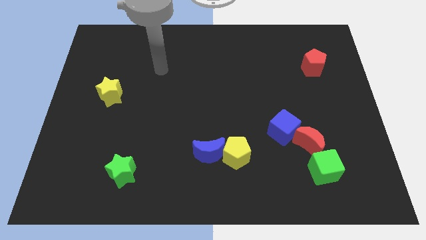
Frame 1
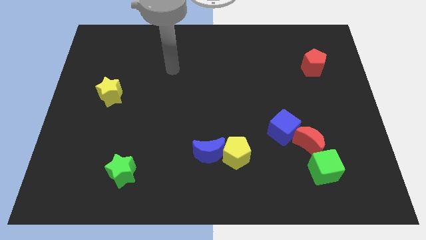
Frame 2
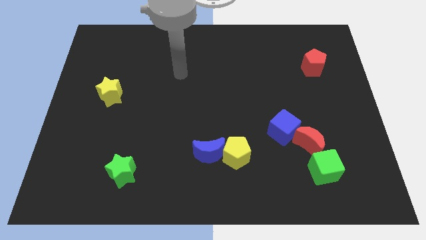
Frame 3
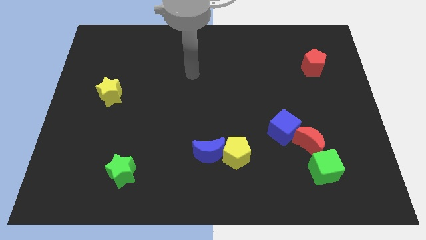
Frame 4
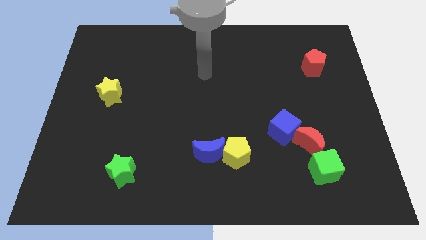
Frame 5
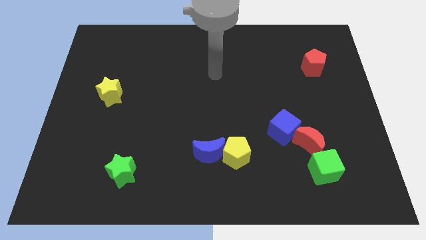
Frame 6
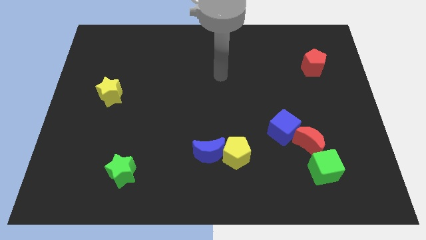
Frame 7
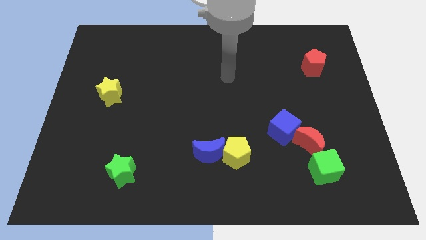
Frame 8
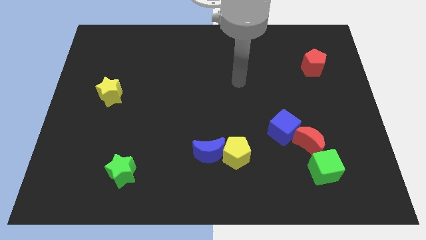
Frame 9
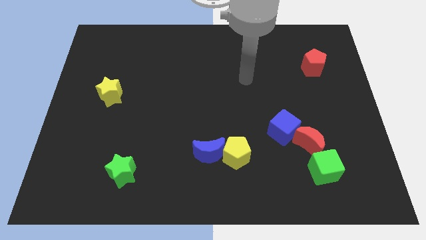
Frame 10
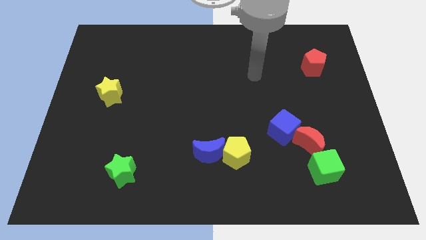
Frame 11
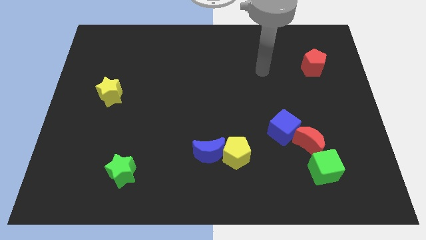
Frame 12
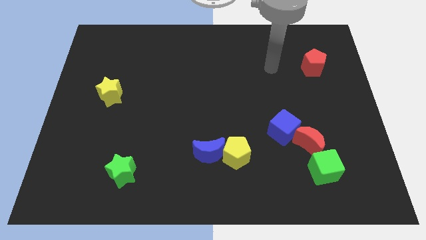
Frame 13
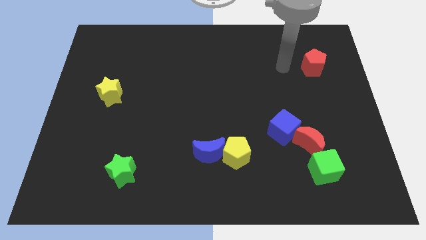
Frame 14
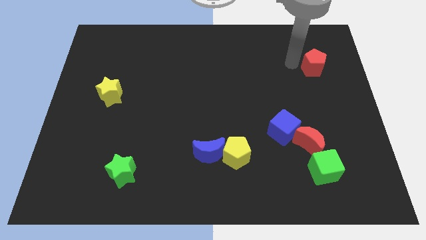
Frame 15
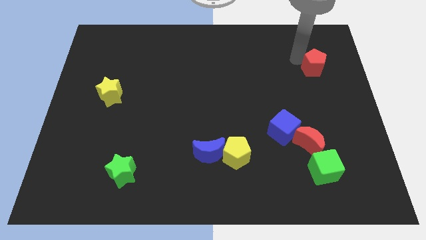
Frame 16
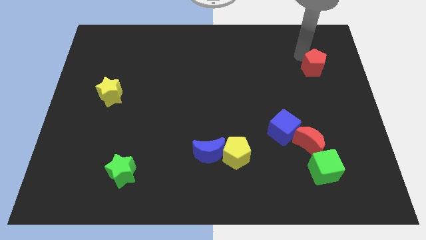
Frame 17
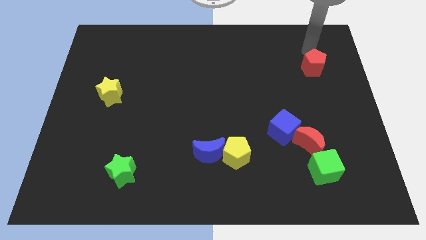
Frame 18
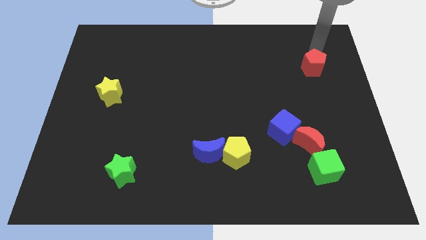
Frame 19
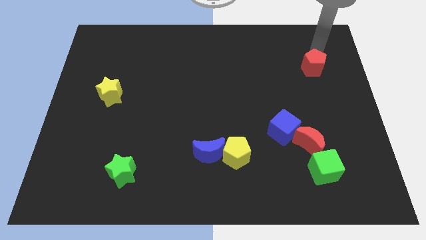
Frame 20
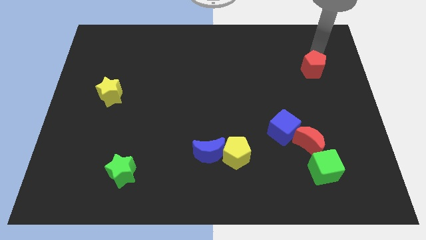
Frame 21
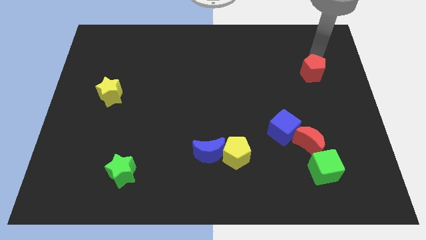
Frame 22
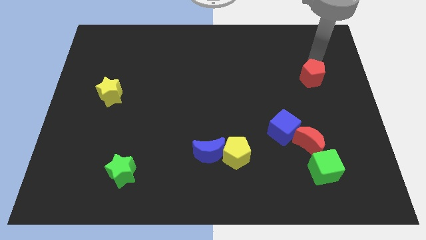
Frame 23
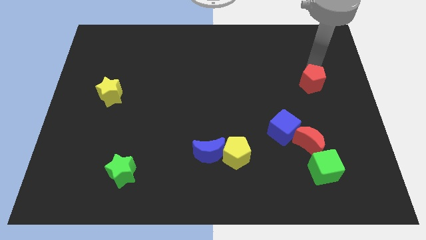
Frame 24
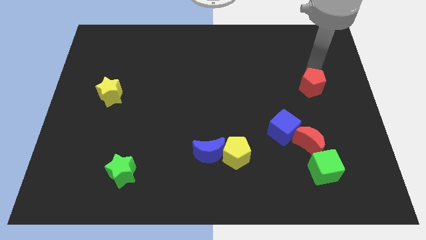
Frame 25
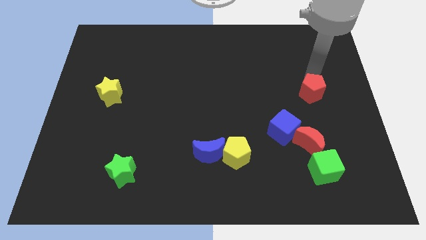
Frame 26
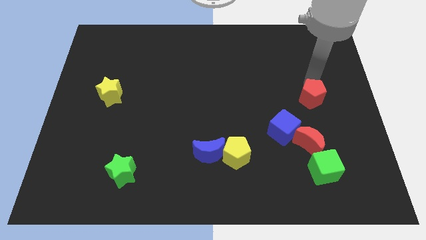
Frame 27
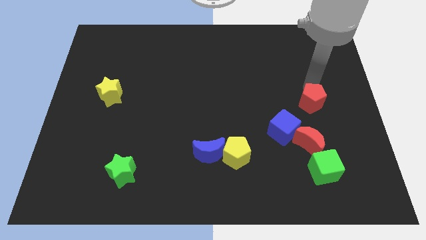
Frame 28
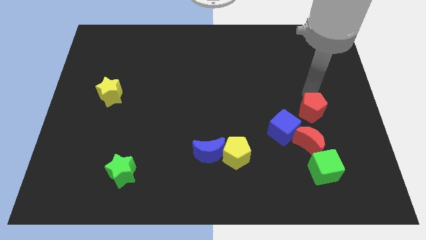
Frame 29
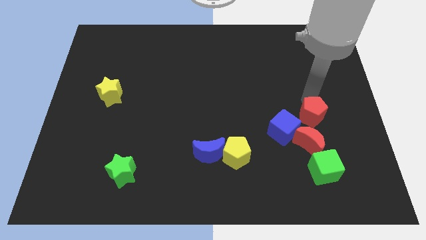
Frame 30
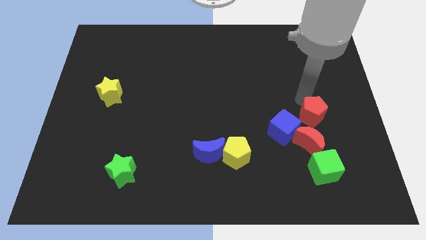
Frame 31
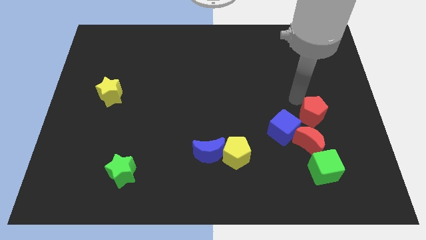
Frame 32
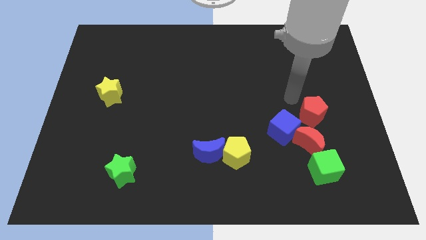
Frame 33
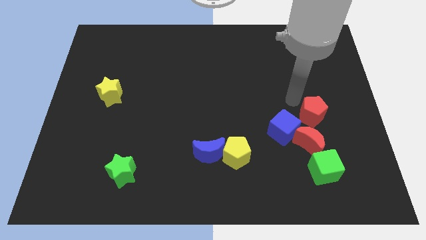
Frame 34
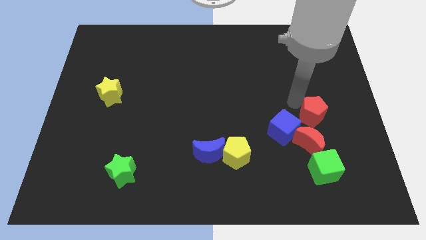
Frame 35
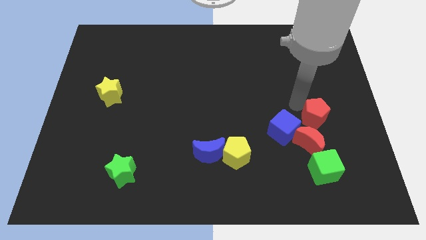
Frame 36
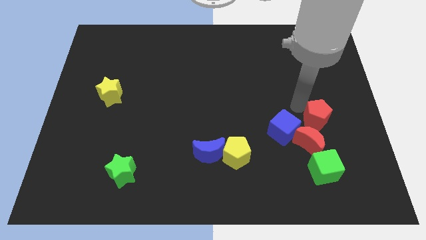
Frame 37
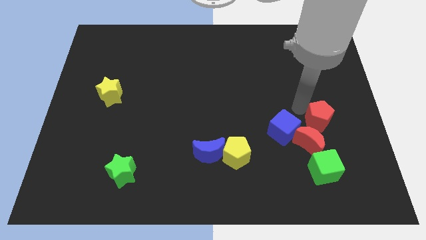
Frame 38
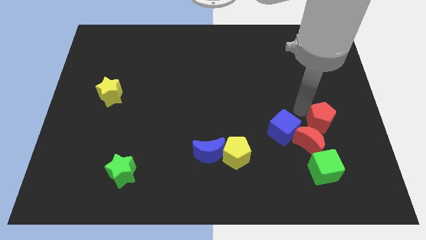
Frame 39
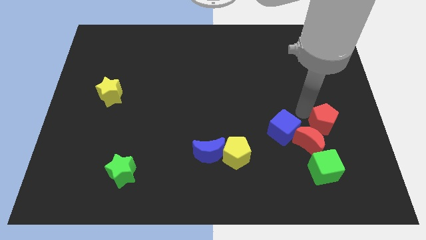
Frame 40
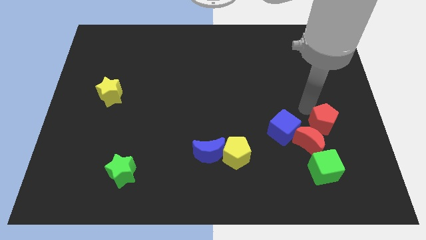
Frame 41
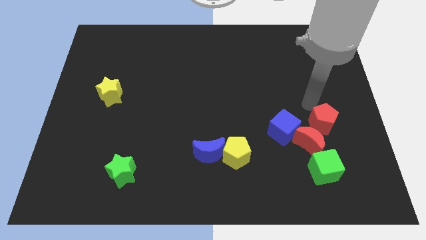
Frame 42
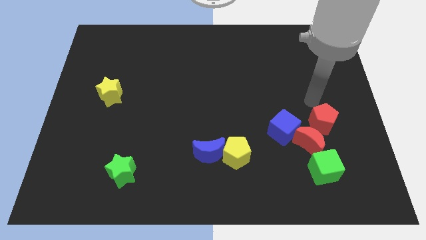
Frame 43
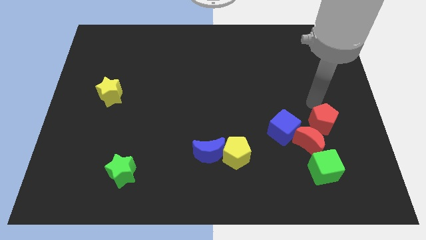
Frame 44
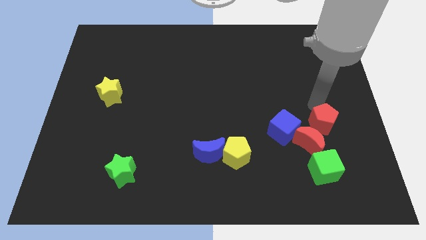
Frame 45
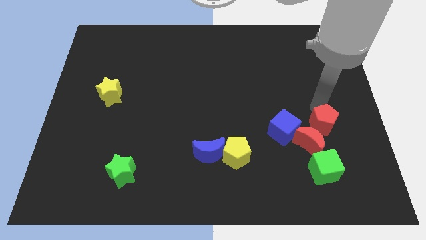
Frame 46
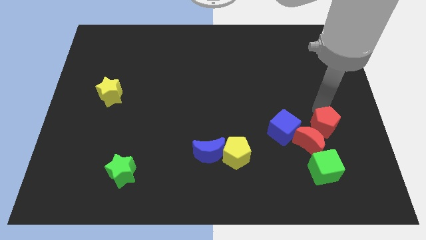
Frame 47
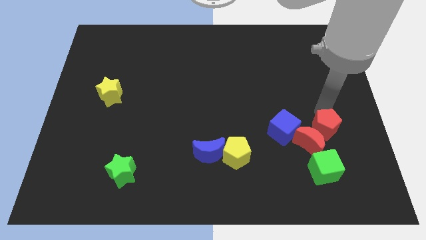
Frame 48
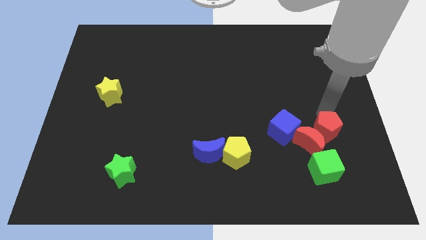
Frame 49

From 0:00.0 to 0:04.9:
slide the red pentagon down

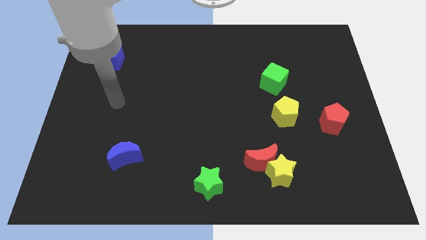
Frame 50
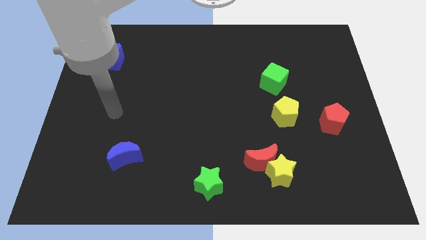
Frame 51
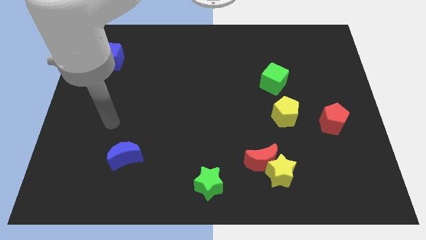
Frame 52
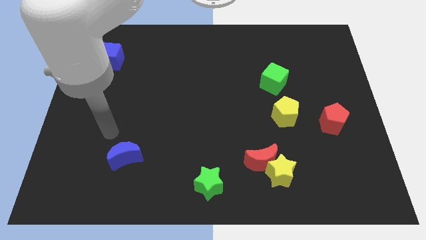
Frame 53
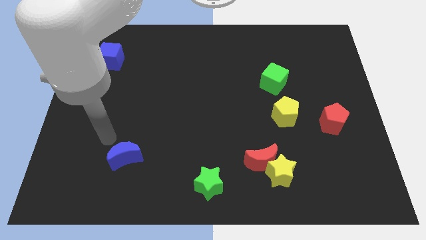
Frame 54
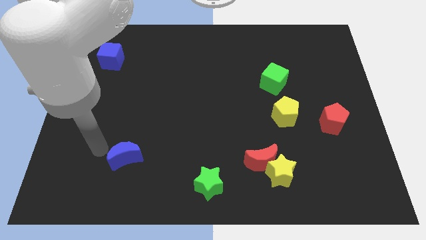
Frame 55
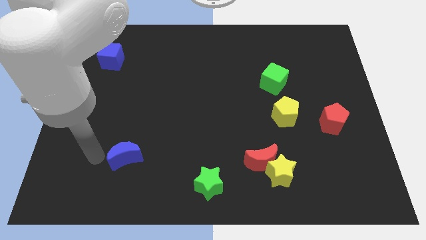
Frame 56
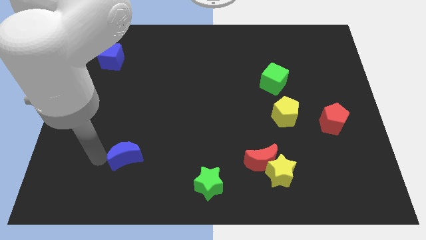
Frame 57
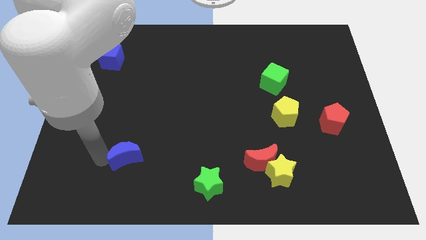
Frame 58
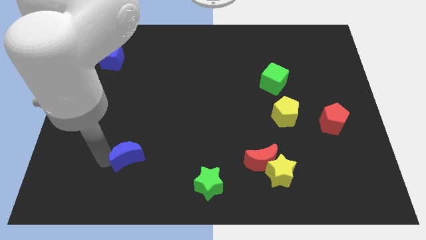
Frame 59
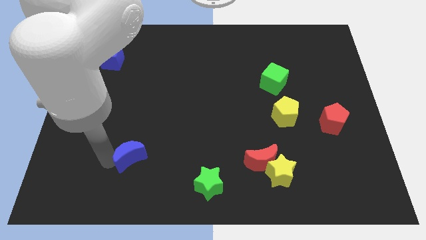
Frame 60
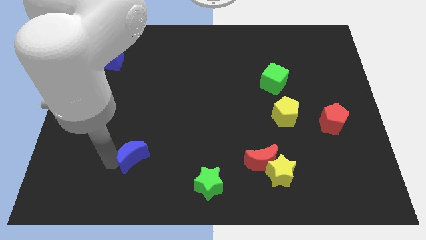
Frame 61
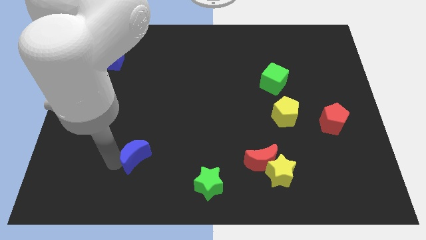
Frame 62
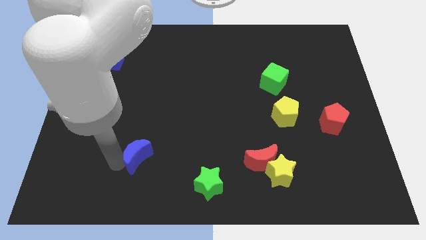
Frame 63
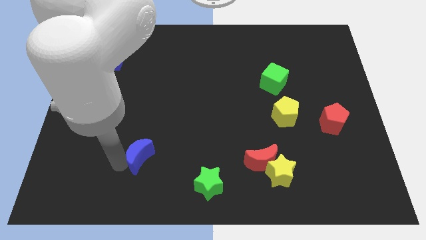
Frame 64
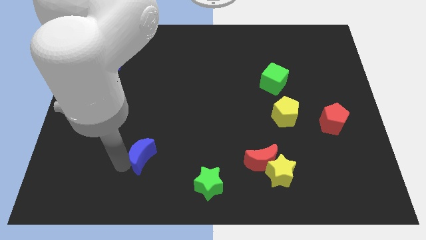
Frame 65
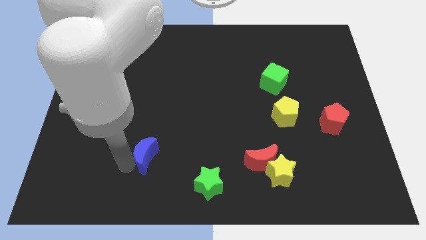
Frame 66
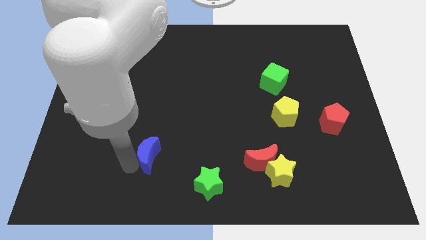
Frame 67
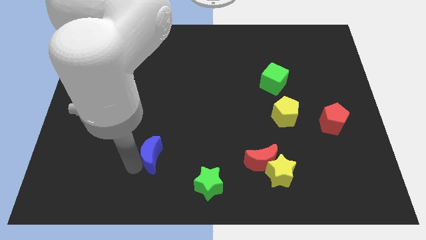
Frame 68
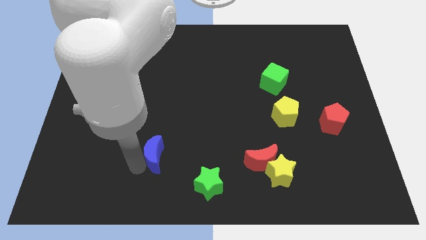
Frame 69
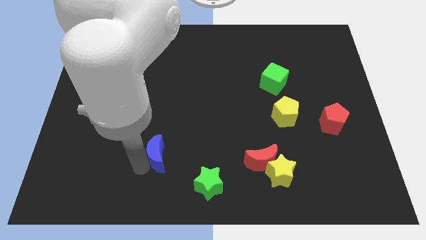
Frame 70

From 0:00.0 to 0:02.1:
slightly push the blue moon to the right

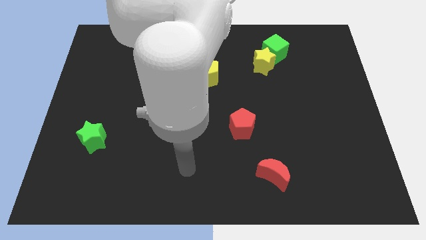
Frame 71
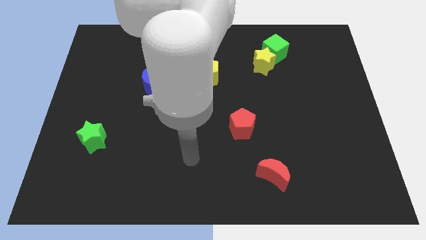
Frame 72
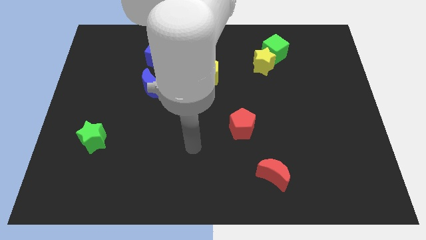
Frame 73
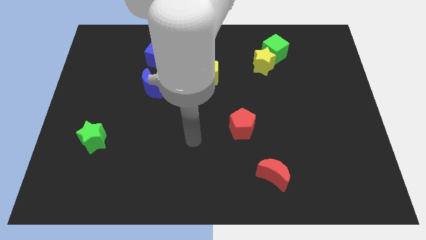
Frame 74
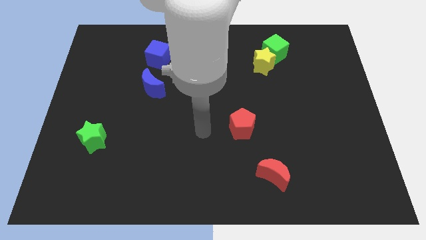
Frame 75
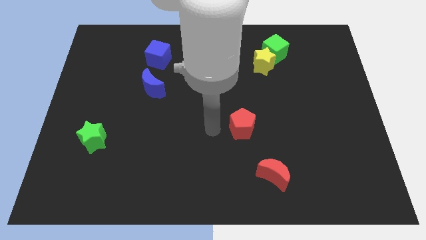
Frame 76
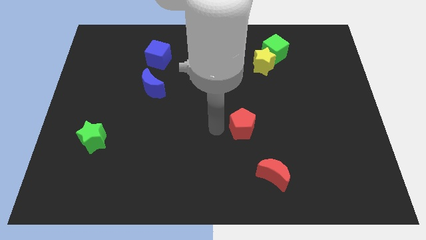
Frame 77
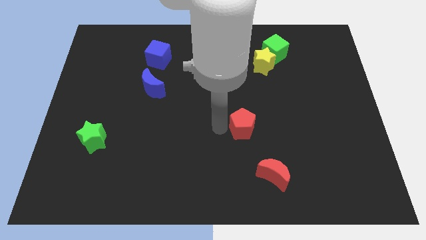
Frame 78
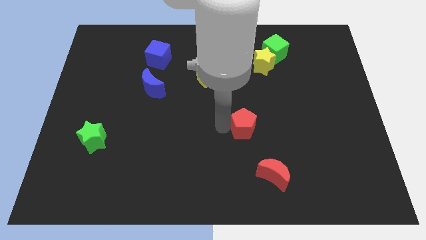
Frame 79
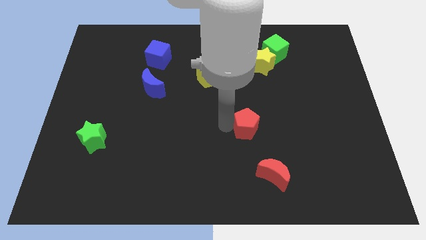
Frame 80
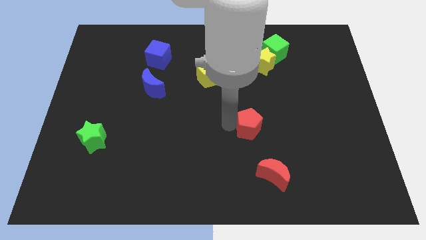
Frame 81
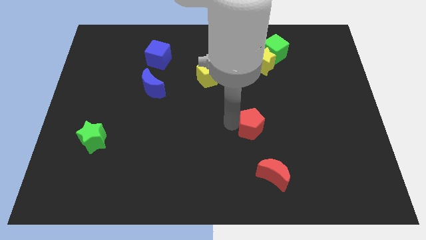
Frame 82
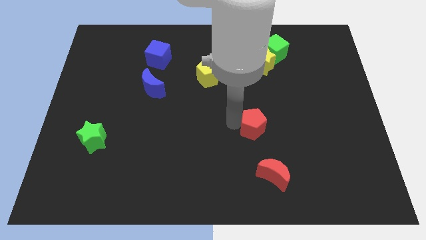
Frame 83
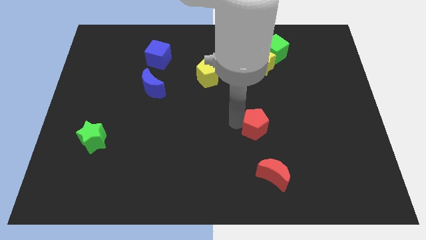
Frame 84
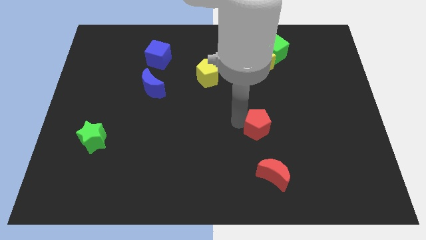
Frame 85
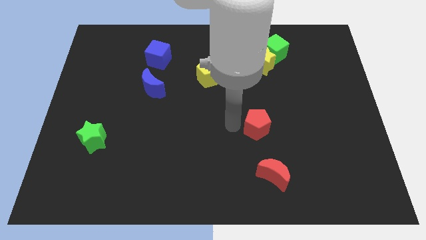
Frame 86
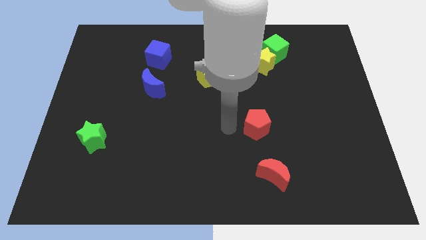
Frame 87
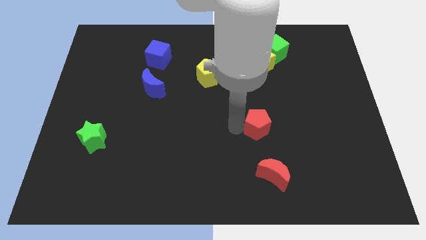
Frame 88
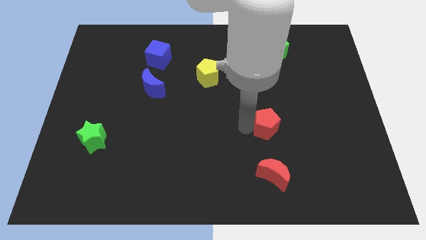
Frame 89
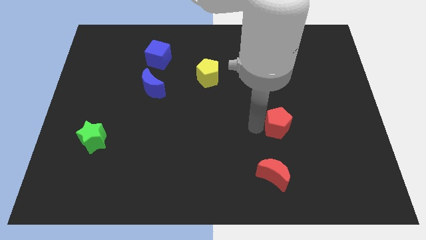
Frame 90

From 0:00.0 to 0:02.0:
push the red pentagon to the right somewhat
